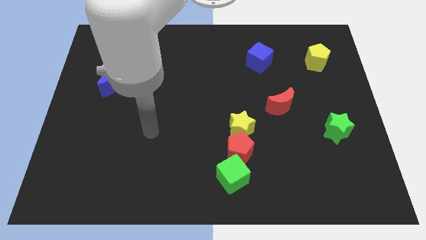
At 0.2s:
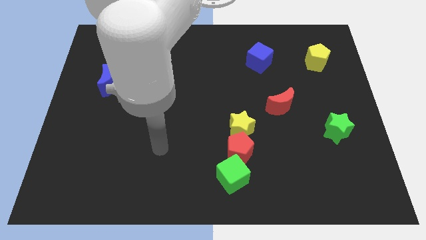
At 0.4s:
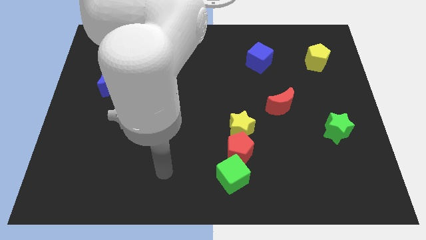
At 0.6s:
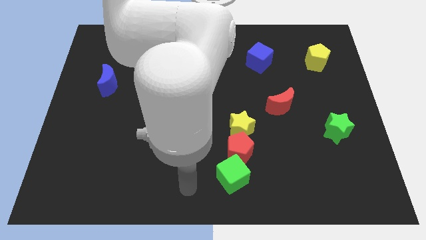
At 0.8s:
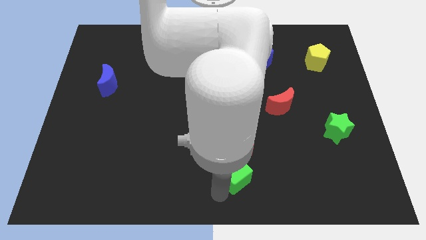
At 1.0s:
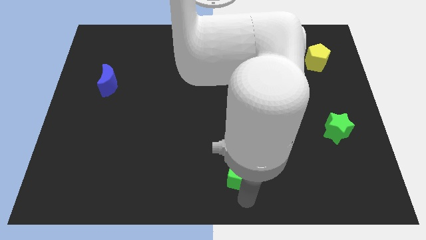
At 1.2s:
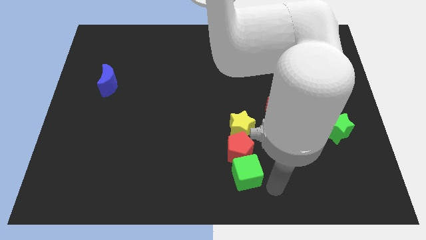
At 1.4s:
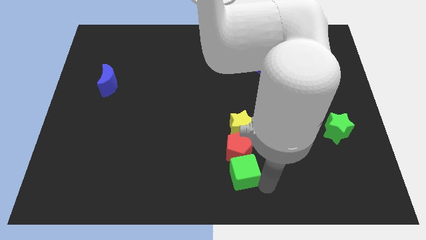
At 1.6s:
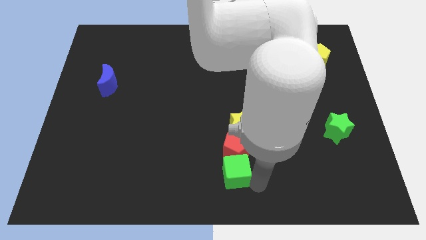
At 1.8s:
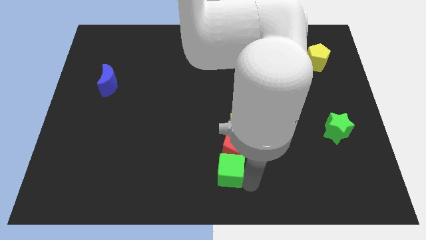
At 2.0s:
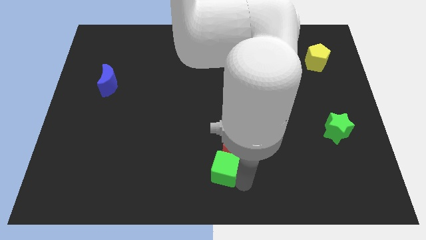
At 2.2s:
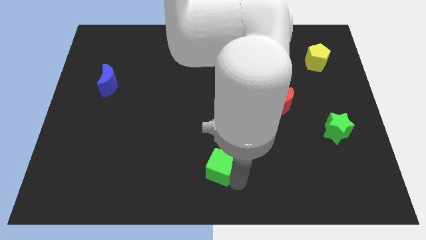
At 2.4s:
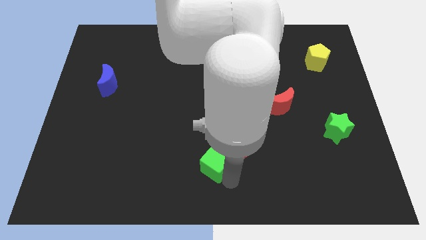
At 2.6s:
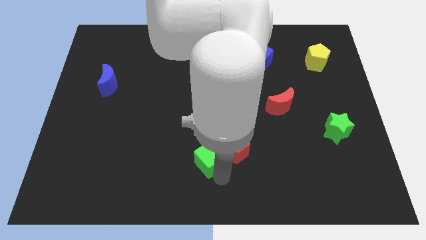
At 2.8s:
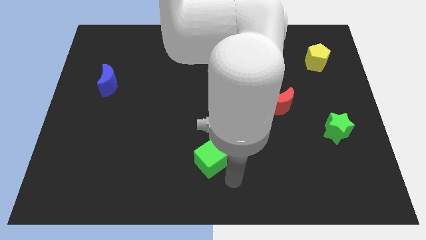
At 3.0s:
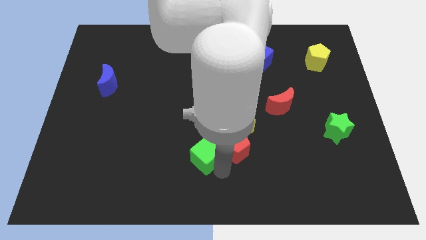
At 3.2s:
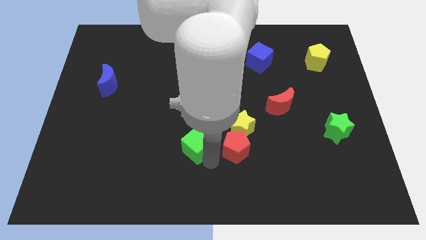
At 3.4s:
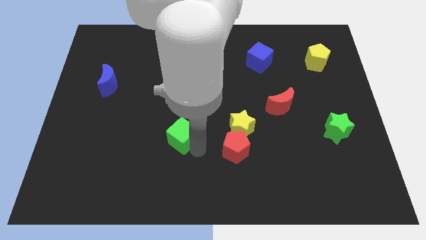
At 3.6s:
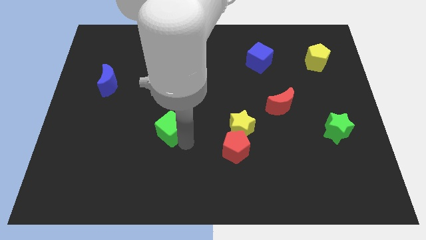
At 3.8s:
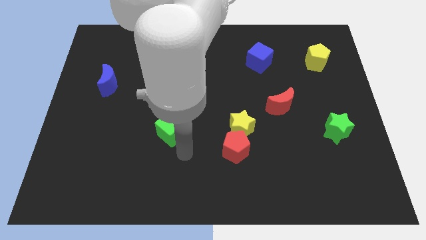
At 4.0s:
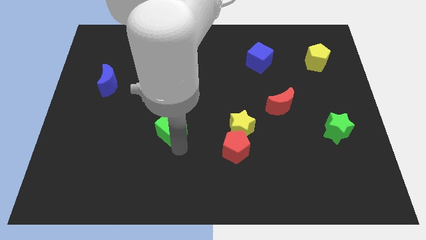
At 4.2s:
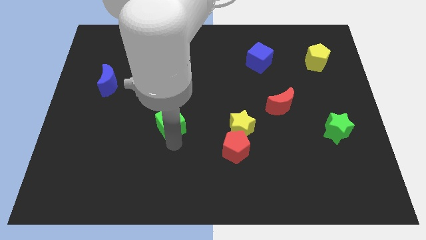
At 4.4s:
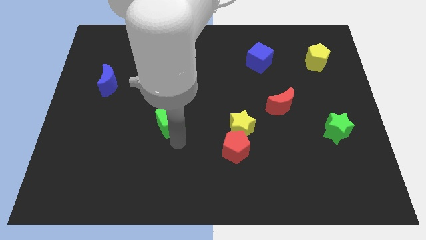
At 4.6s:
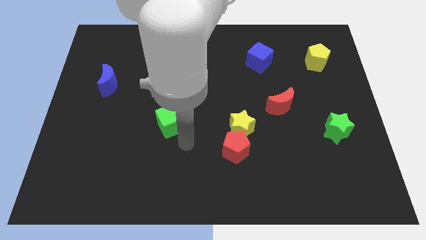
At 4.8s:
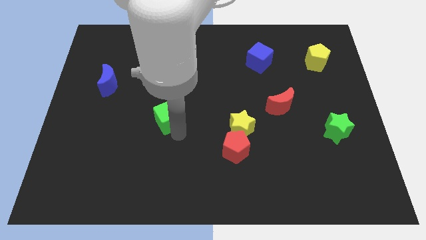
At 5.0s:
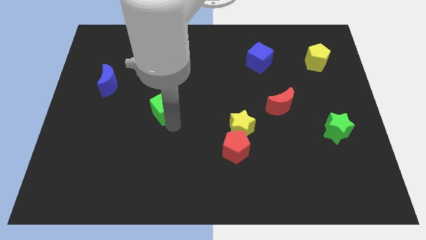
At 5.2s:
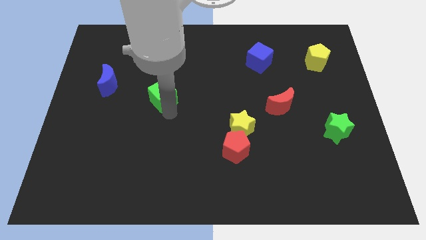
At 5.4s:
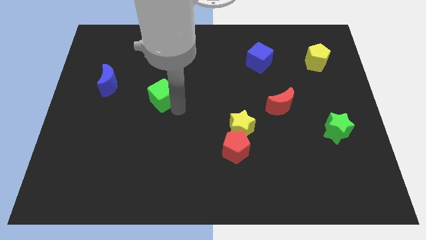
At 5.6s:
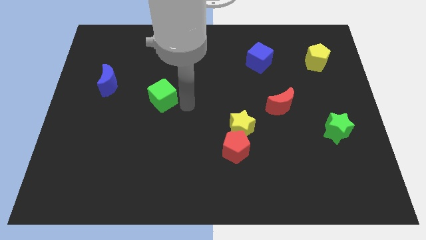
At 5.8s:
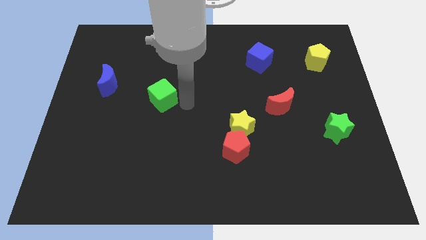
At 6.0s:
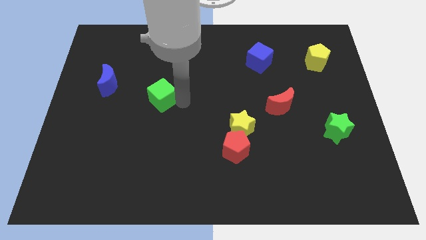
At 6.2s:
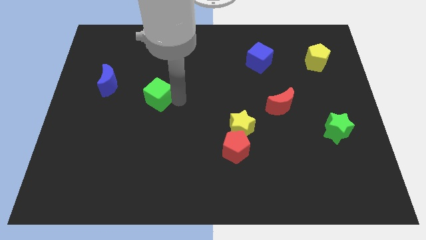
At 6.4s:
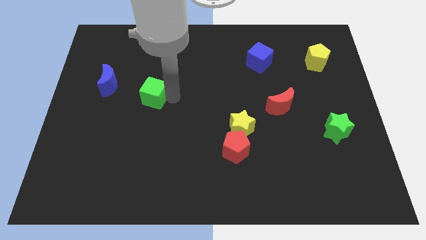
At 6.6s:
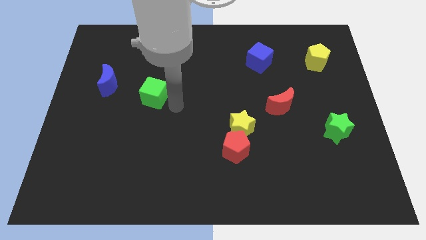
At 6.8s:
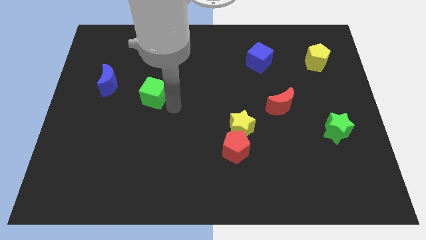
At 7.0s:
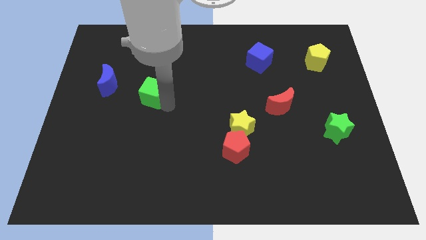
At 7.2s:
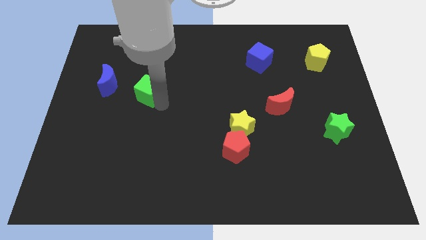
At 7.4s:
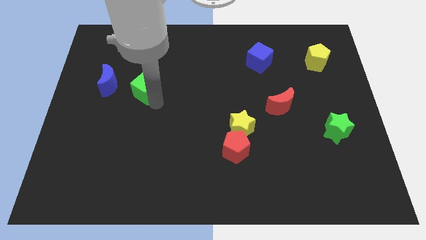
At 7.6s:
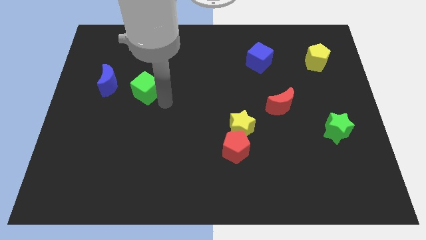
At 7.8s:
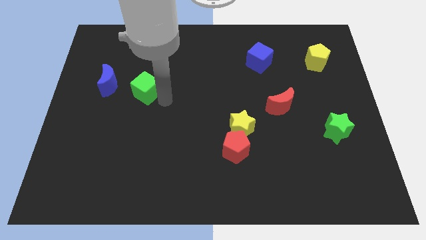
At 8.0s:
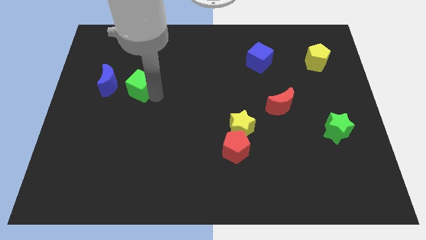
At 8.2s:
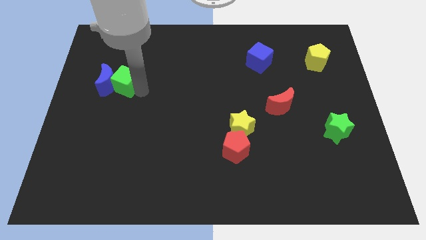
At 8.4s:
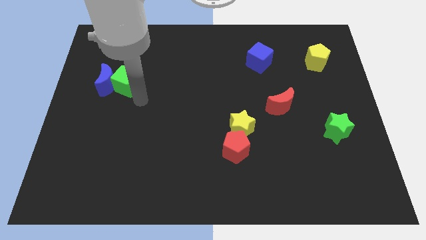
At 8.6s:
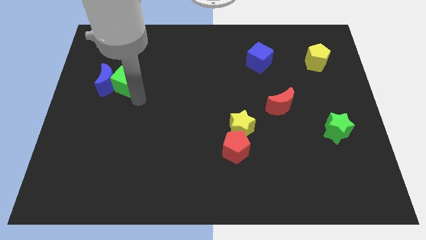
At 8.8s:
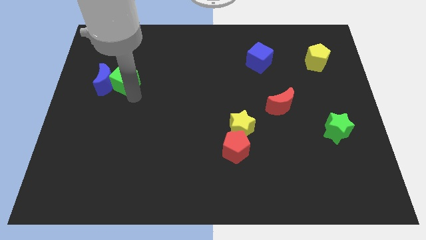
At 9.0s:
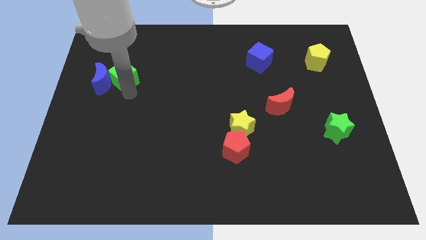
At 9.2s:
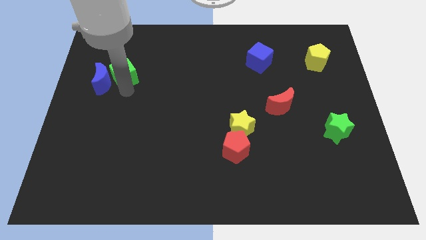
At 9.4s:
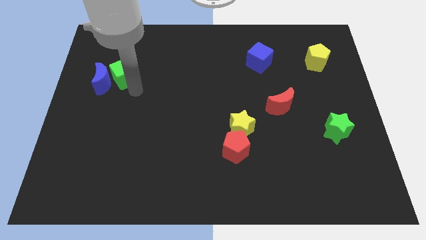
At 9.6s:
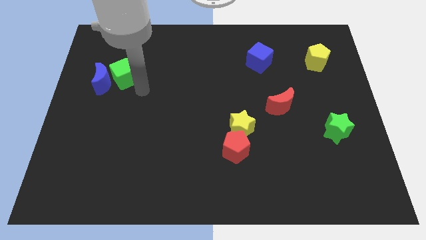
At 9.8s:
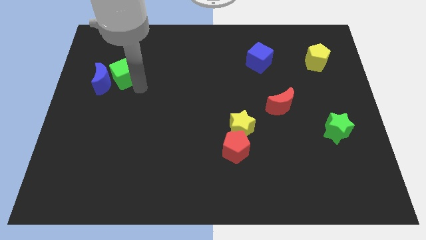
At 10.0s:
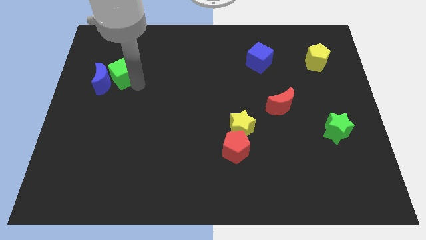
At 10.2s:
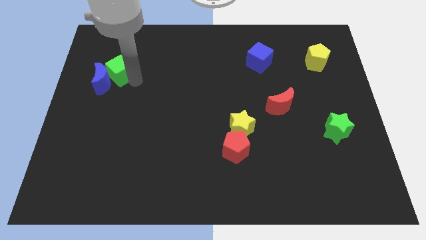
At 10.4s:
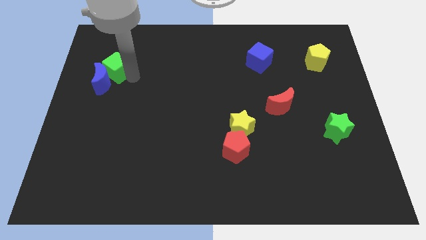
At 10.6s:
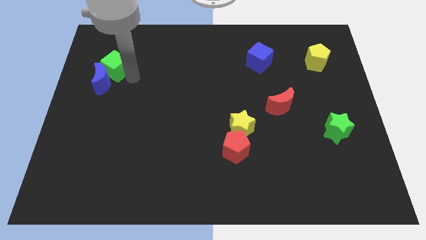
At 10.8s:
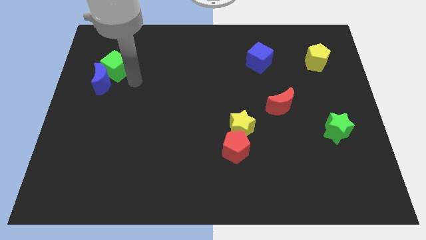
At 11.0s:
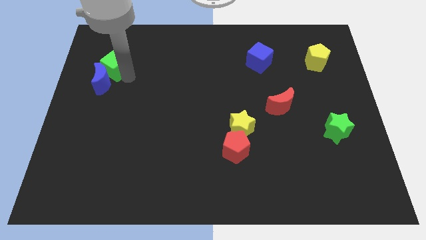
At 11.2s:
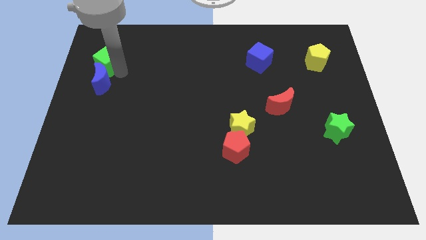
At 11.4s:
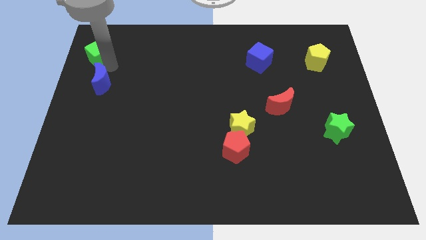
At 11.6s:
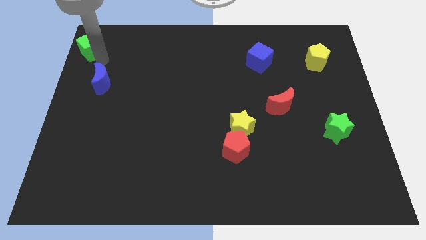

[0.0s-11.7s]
move the green cube to the top left corner
